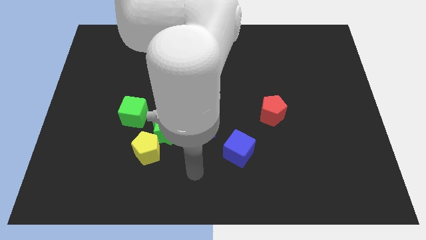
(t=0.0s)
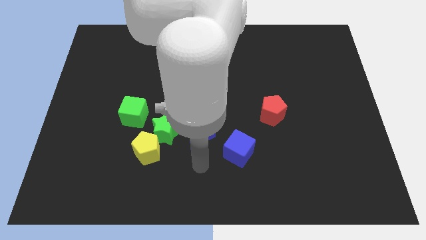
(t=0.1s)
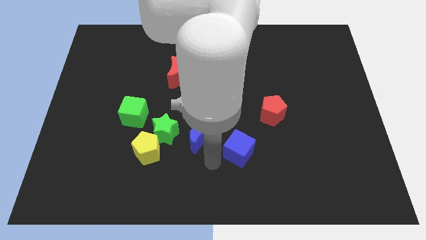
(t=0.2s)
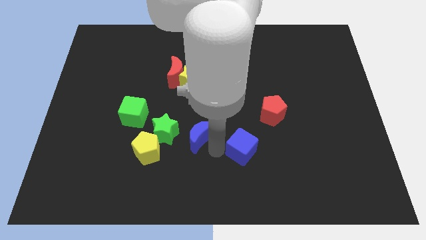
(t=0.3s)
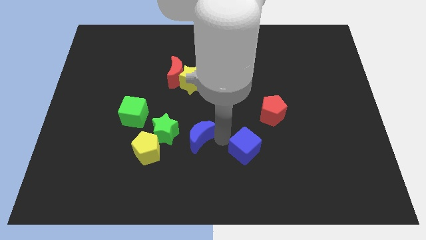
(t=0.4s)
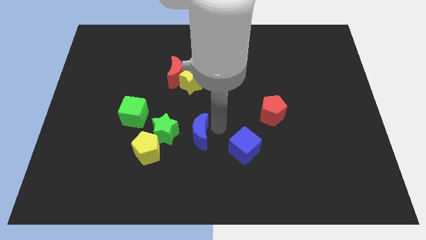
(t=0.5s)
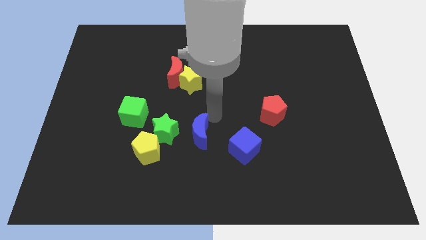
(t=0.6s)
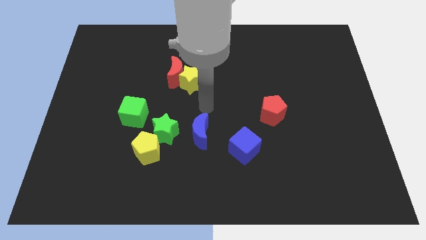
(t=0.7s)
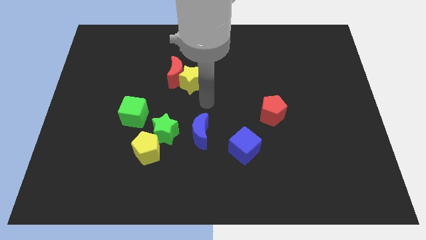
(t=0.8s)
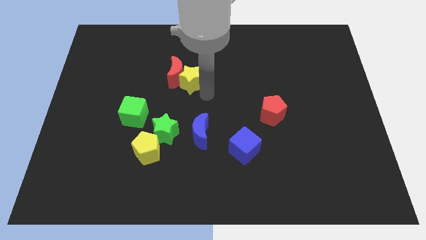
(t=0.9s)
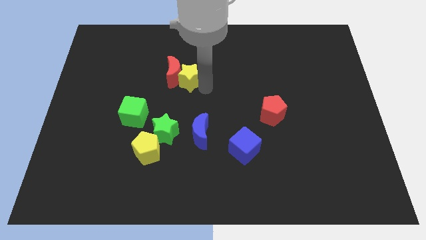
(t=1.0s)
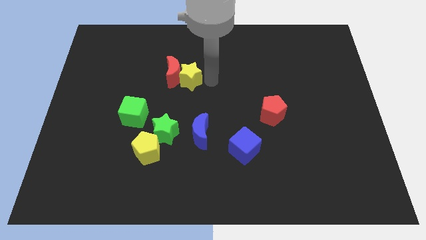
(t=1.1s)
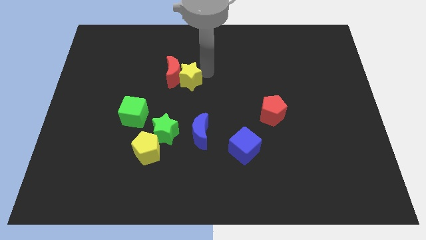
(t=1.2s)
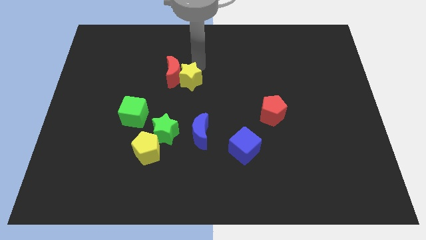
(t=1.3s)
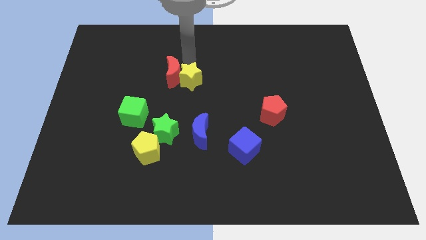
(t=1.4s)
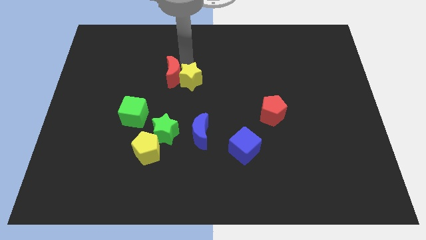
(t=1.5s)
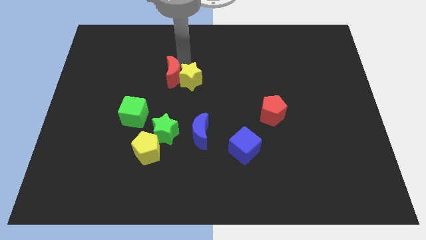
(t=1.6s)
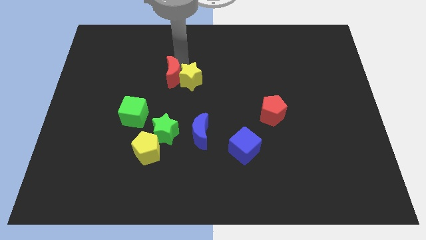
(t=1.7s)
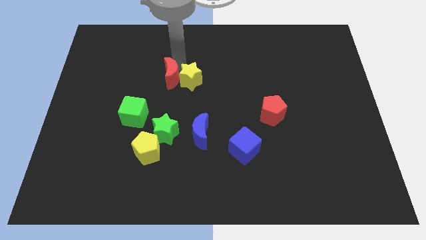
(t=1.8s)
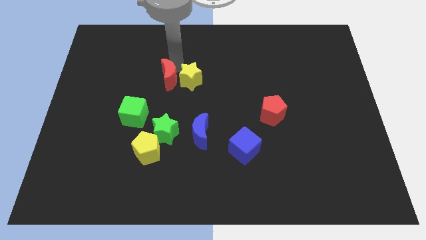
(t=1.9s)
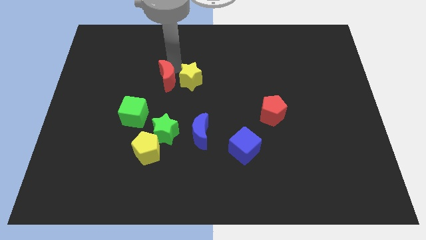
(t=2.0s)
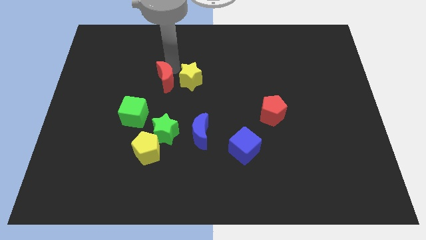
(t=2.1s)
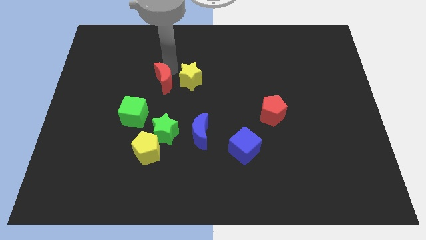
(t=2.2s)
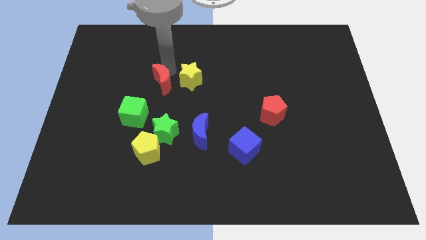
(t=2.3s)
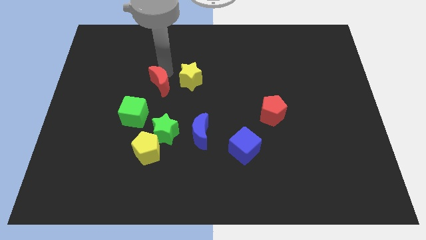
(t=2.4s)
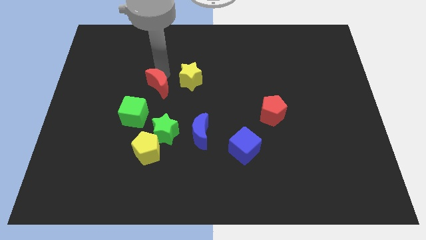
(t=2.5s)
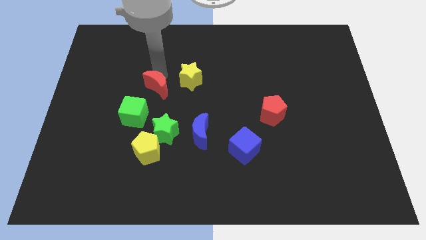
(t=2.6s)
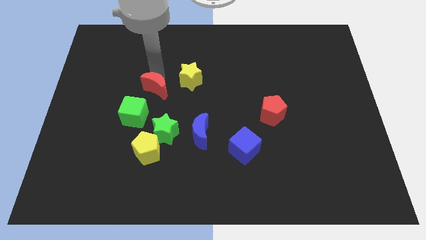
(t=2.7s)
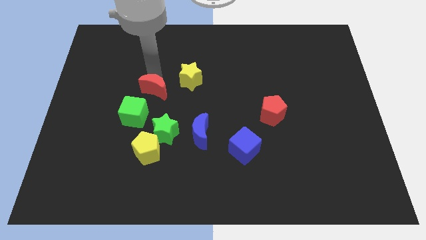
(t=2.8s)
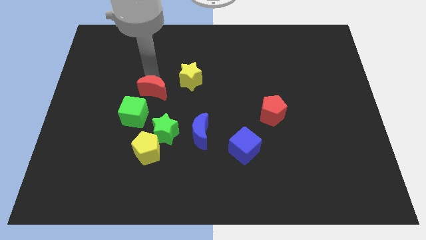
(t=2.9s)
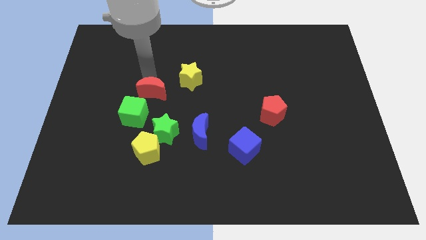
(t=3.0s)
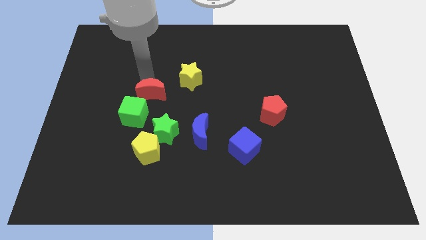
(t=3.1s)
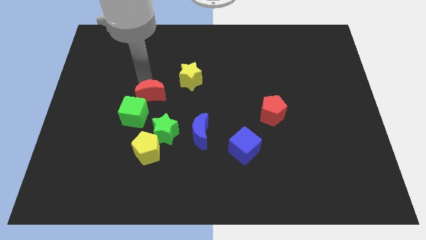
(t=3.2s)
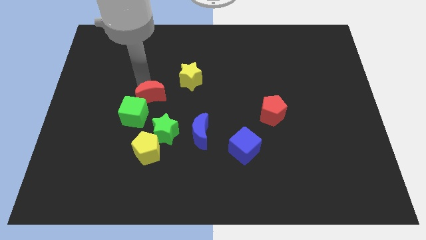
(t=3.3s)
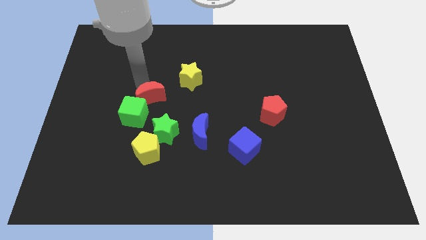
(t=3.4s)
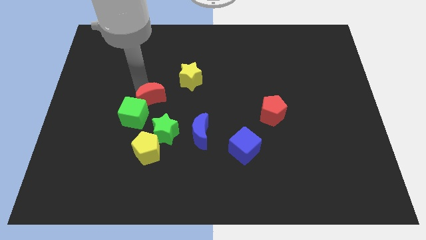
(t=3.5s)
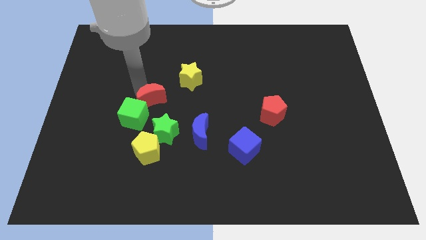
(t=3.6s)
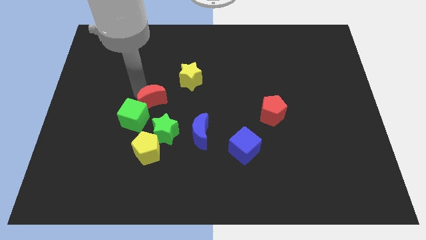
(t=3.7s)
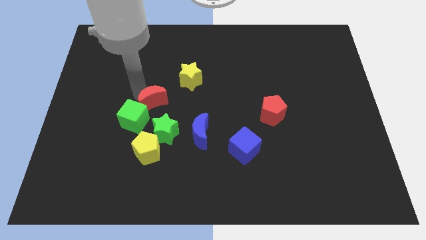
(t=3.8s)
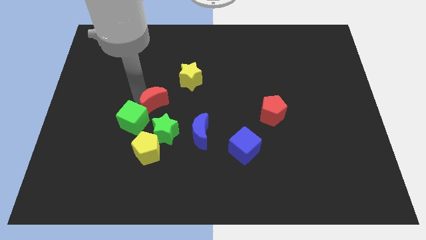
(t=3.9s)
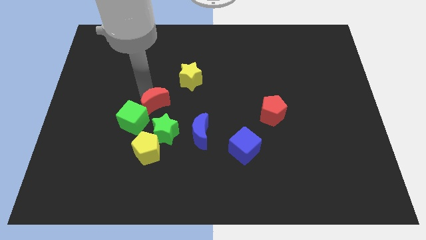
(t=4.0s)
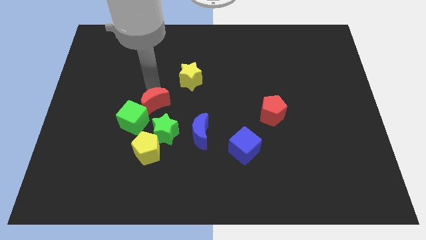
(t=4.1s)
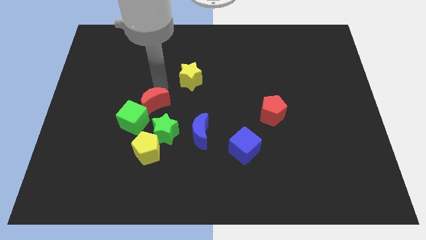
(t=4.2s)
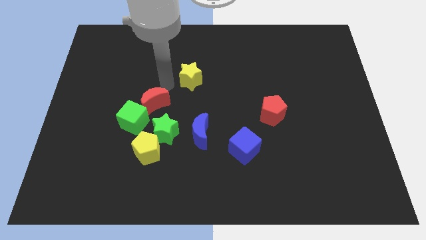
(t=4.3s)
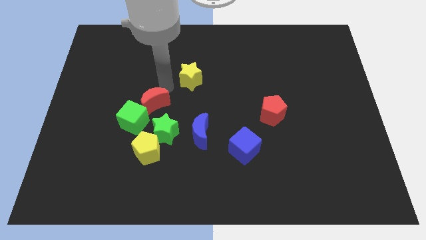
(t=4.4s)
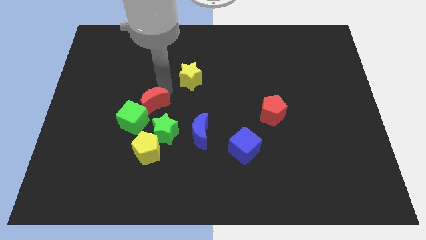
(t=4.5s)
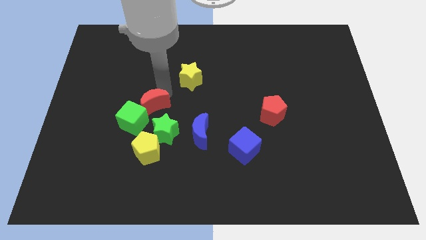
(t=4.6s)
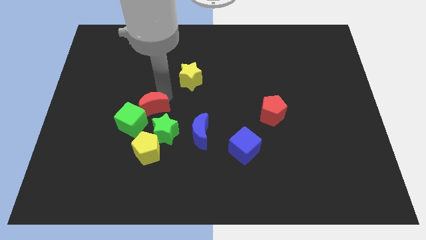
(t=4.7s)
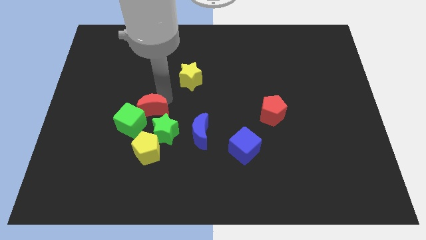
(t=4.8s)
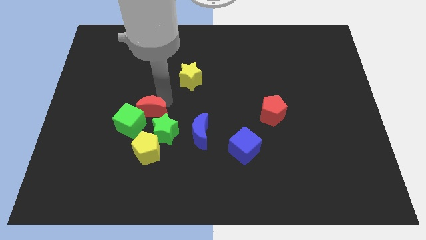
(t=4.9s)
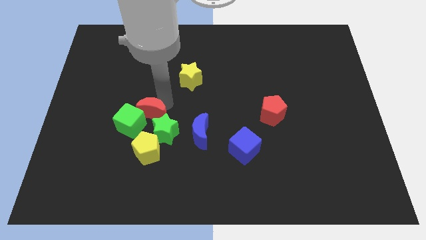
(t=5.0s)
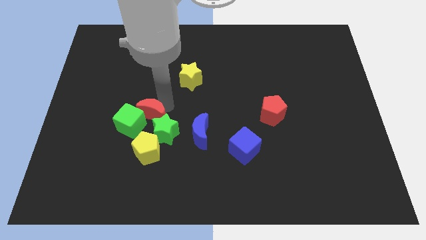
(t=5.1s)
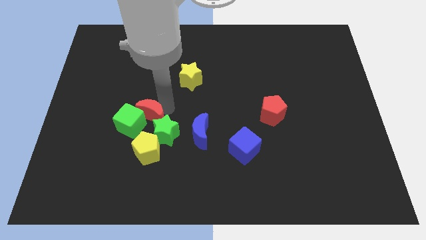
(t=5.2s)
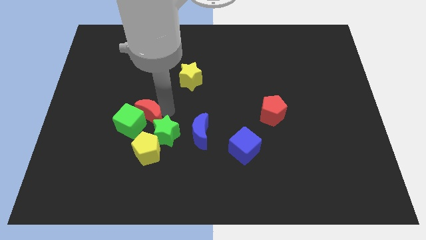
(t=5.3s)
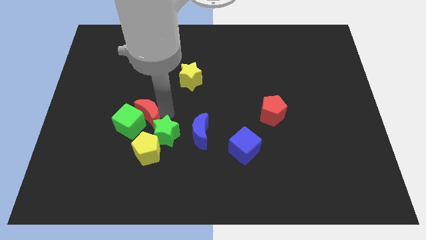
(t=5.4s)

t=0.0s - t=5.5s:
put the red moon just left of the blue moon
